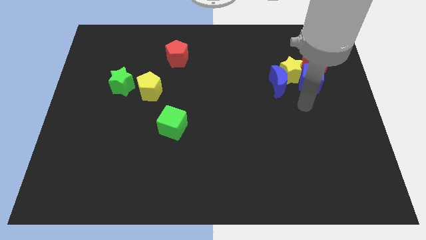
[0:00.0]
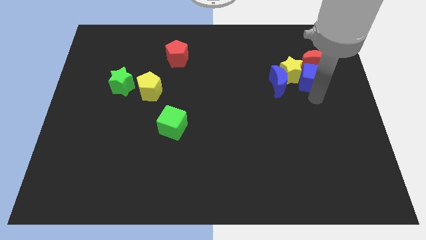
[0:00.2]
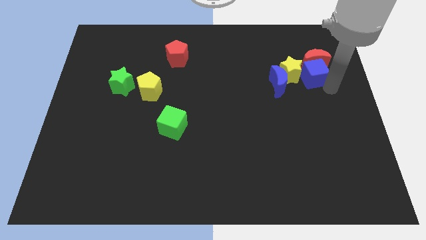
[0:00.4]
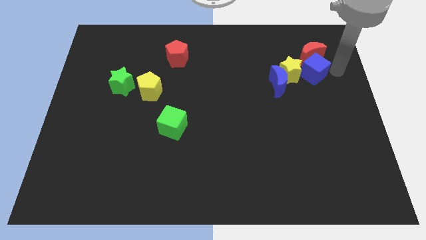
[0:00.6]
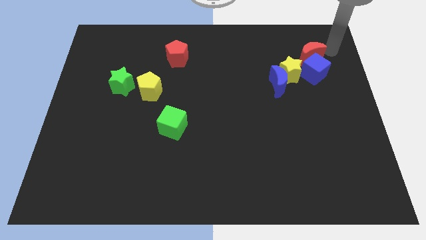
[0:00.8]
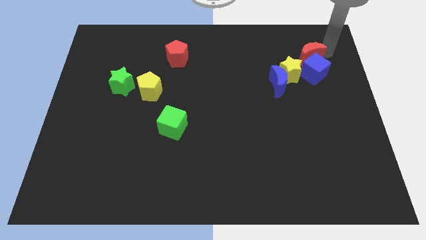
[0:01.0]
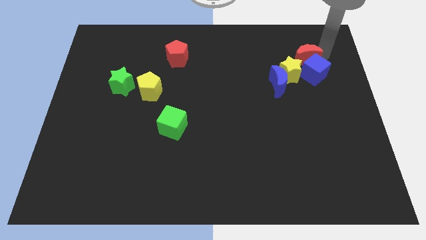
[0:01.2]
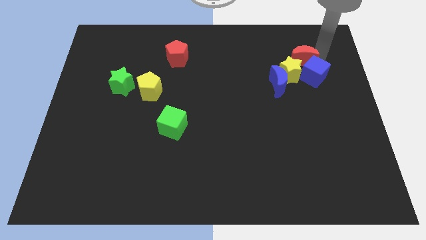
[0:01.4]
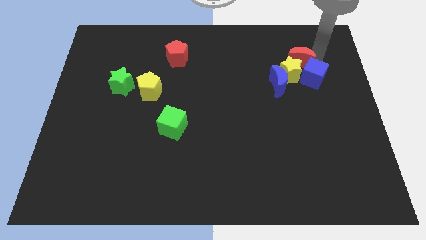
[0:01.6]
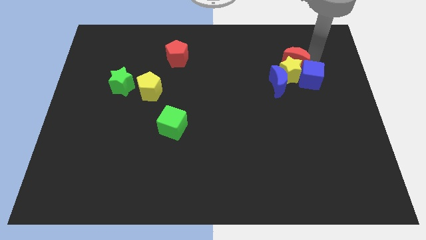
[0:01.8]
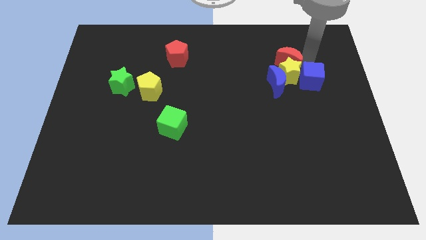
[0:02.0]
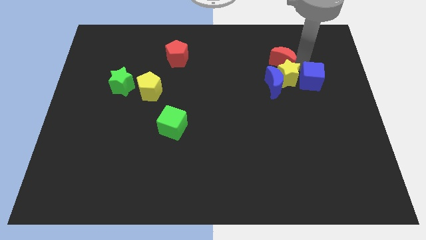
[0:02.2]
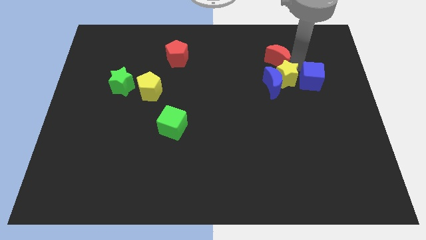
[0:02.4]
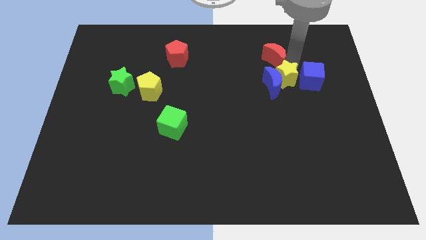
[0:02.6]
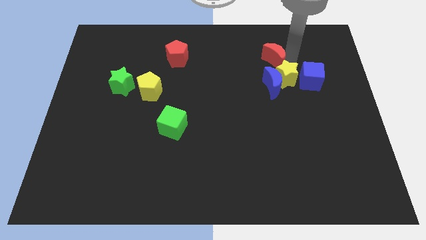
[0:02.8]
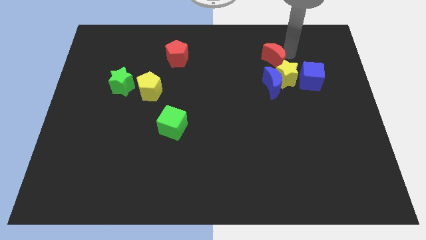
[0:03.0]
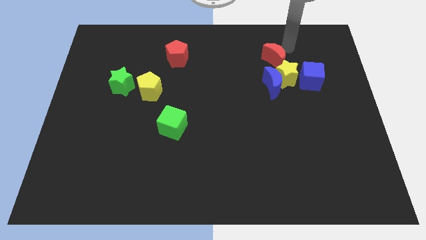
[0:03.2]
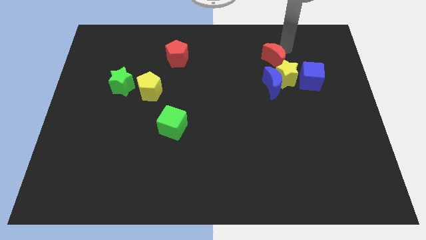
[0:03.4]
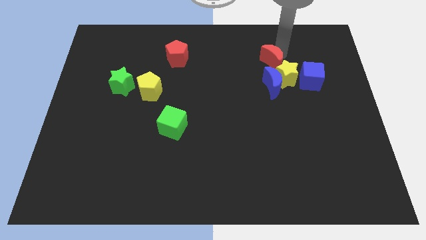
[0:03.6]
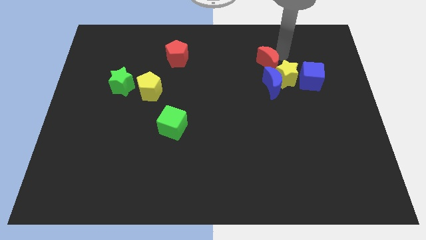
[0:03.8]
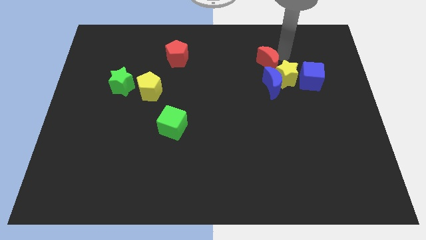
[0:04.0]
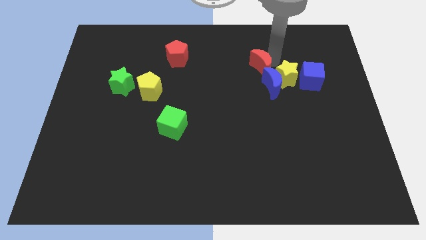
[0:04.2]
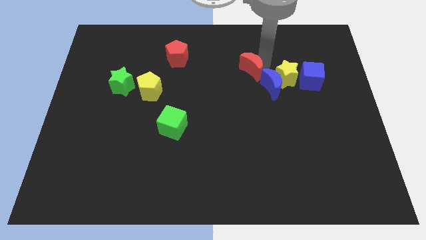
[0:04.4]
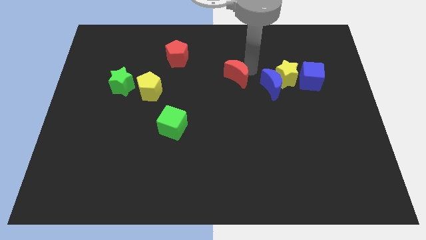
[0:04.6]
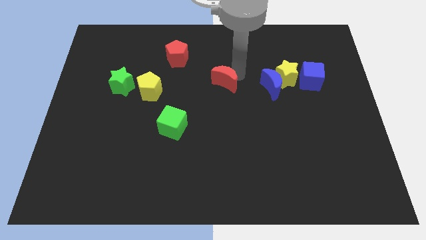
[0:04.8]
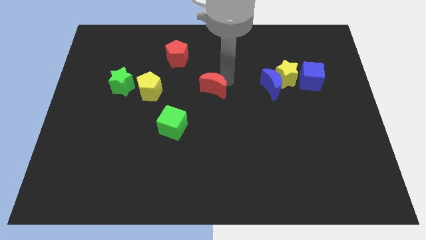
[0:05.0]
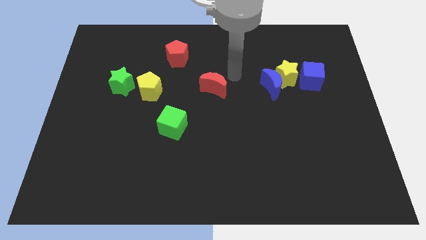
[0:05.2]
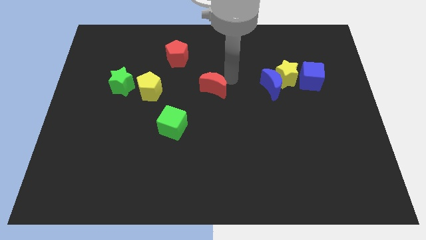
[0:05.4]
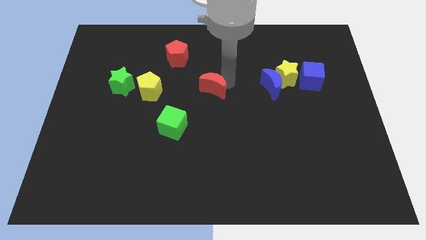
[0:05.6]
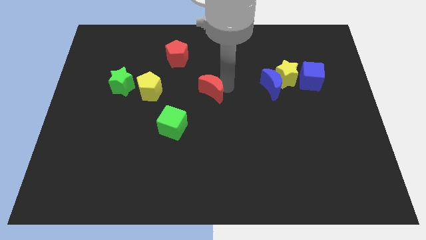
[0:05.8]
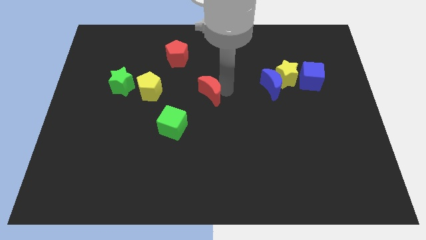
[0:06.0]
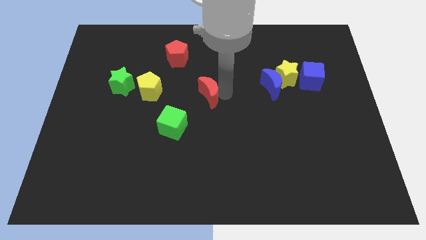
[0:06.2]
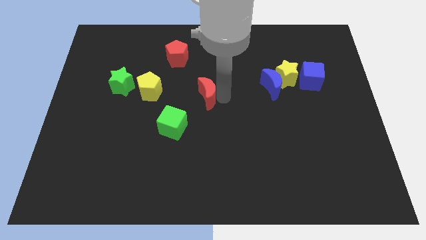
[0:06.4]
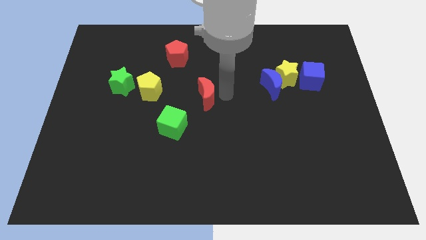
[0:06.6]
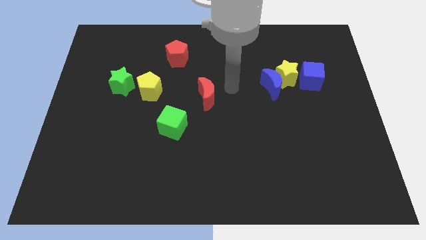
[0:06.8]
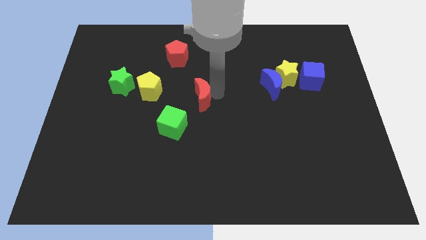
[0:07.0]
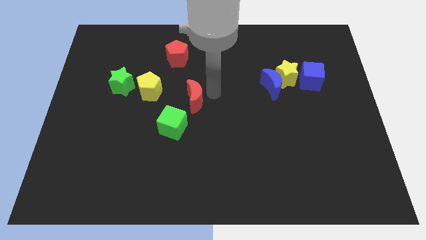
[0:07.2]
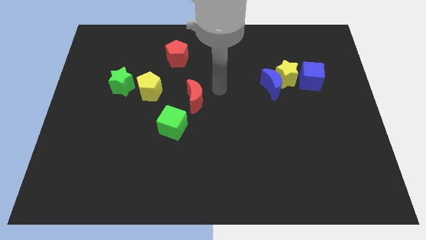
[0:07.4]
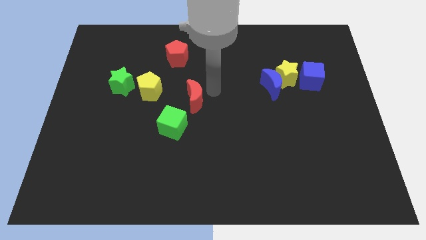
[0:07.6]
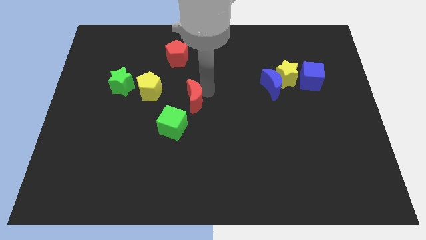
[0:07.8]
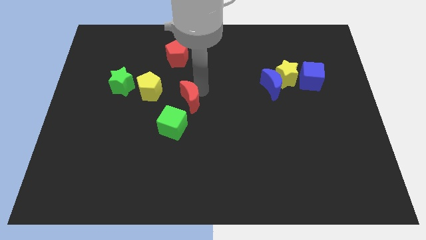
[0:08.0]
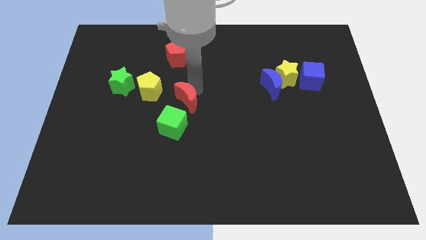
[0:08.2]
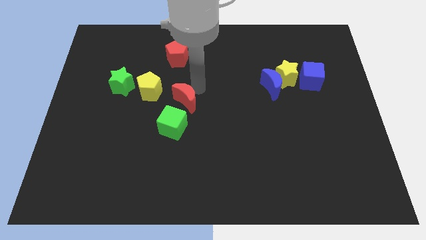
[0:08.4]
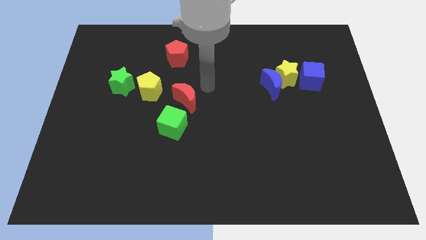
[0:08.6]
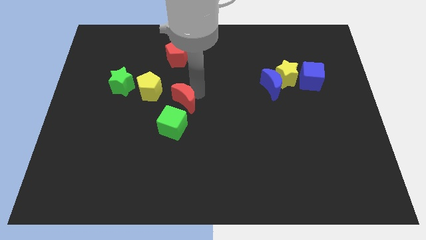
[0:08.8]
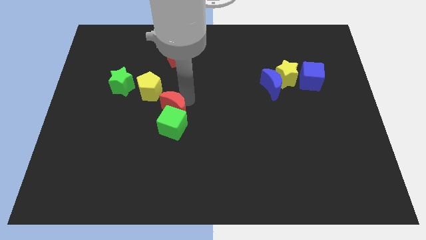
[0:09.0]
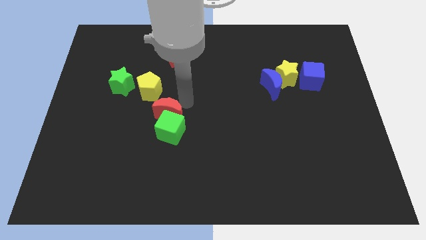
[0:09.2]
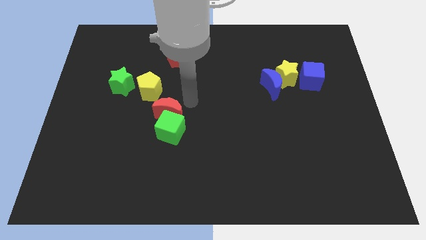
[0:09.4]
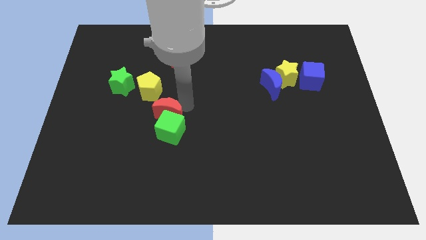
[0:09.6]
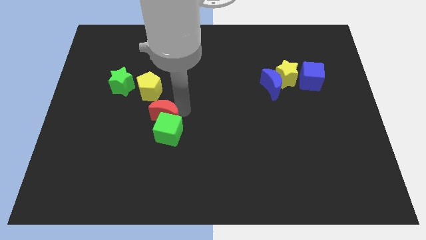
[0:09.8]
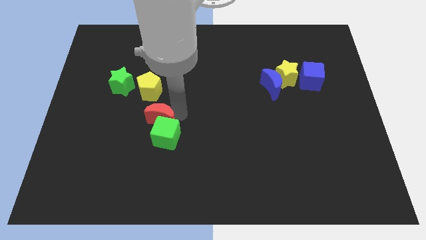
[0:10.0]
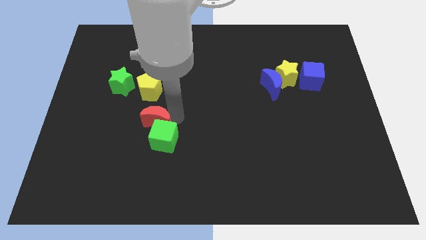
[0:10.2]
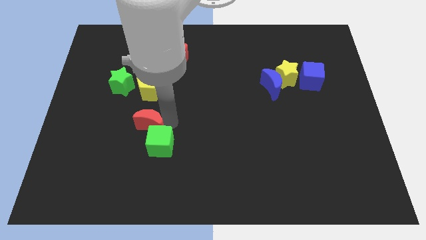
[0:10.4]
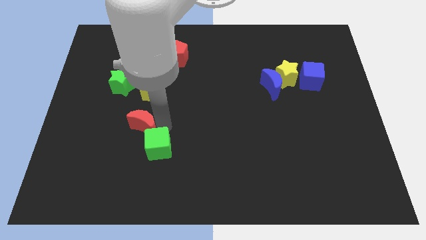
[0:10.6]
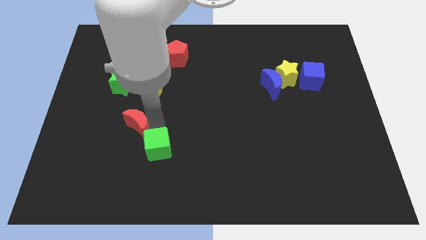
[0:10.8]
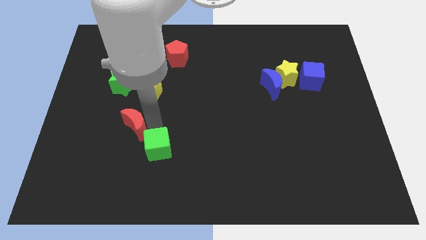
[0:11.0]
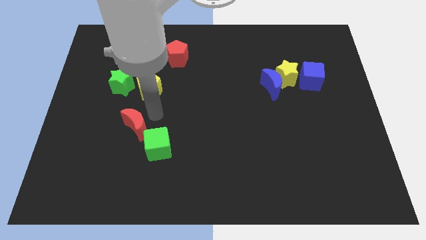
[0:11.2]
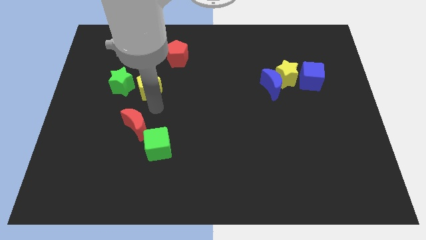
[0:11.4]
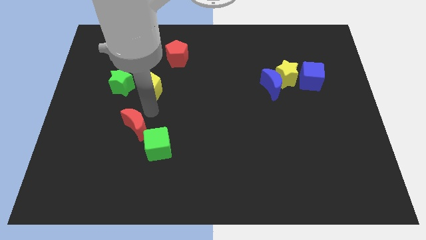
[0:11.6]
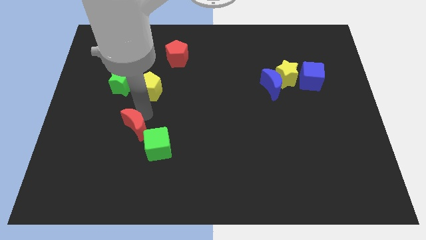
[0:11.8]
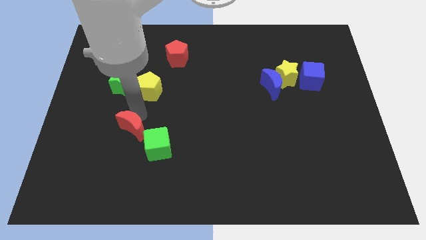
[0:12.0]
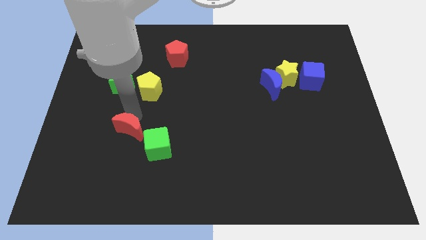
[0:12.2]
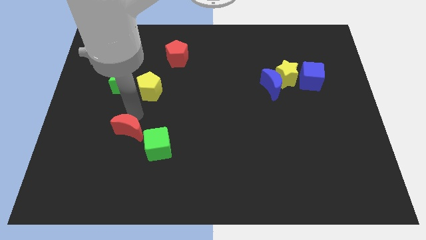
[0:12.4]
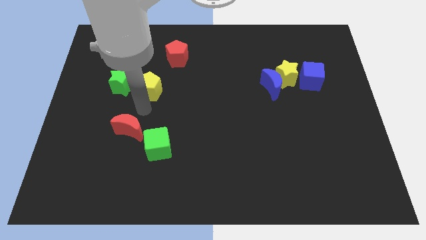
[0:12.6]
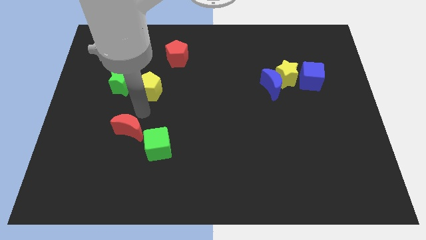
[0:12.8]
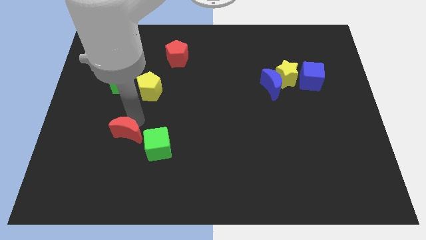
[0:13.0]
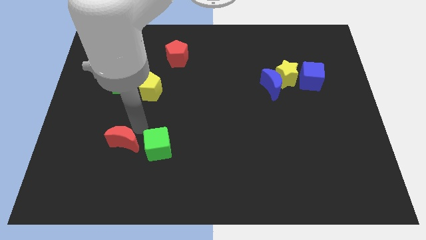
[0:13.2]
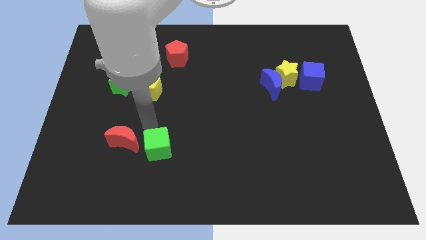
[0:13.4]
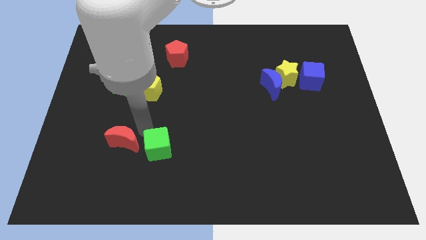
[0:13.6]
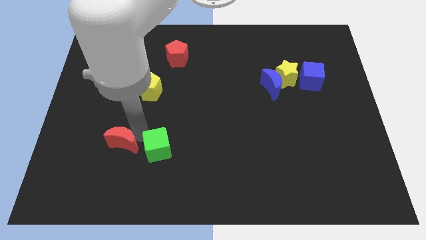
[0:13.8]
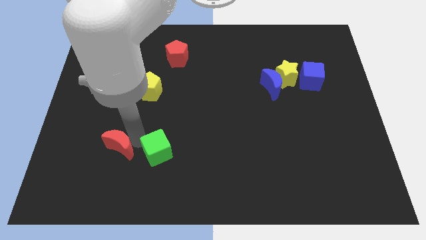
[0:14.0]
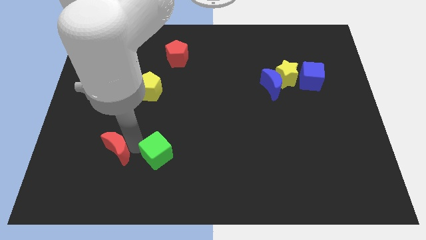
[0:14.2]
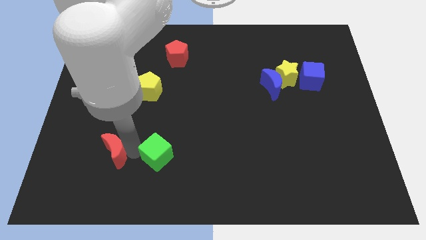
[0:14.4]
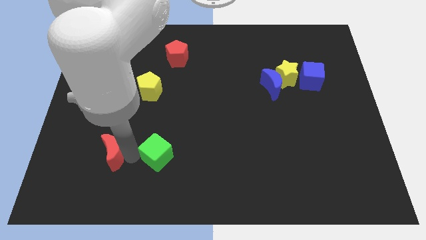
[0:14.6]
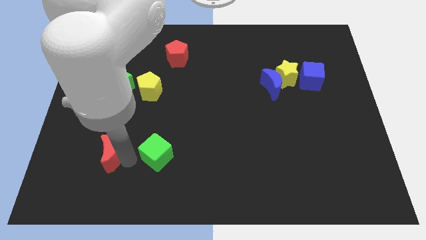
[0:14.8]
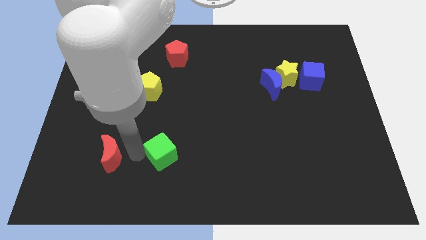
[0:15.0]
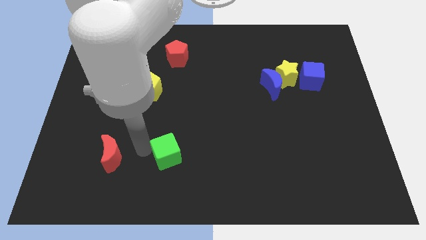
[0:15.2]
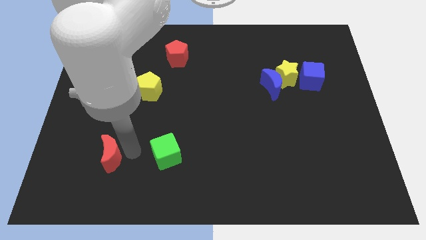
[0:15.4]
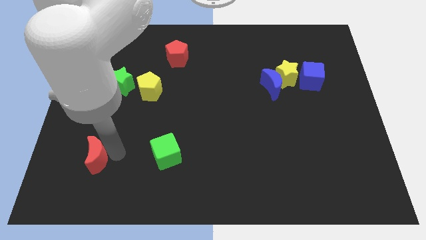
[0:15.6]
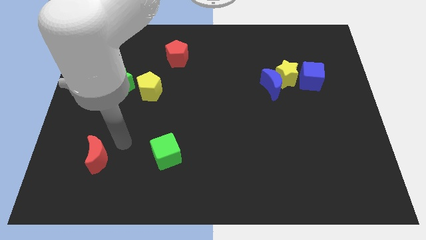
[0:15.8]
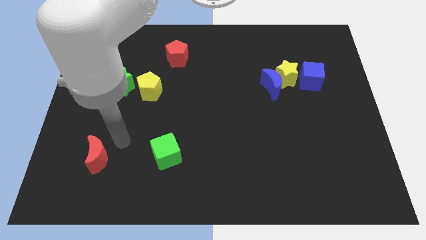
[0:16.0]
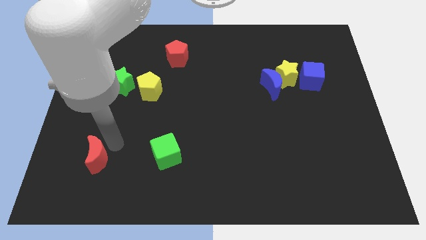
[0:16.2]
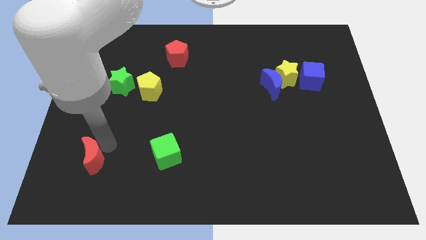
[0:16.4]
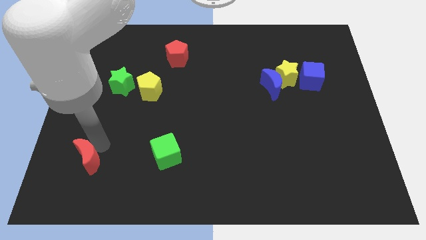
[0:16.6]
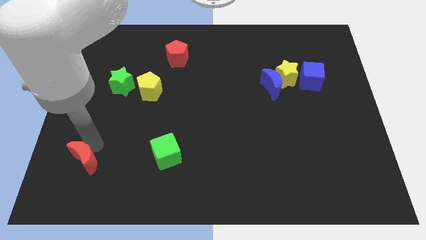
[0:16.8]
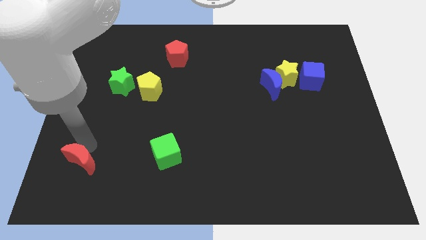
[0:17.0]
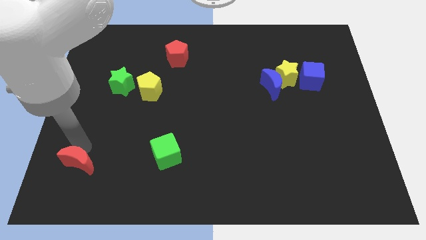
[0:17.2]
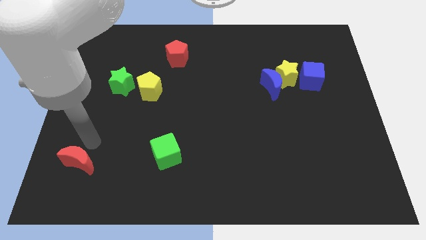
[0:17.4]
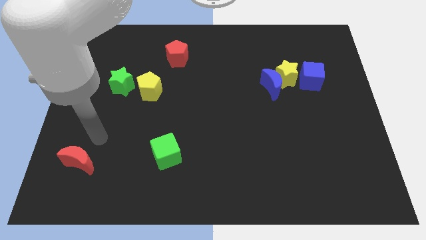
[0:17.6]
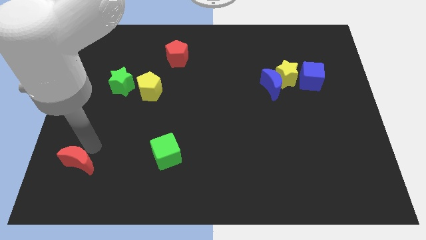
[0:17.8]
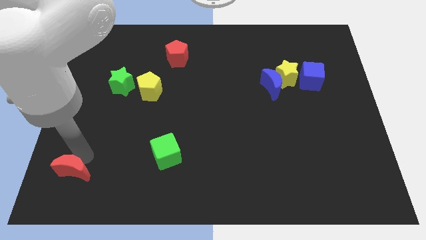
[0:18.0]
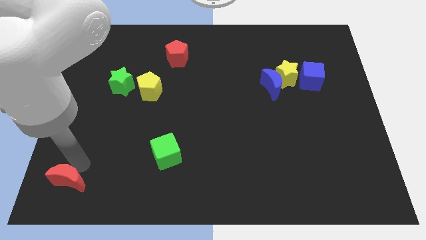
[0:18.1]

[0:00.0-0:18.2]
slide the red moon to the lower left corner
